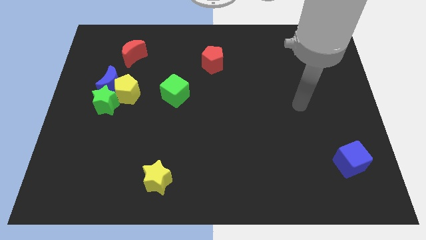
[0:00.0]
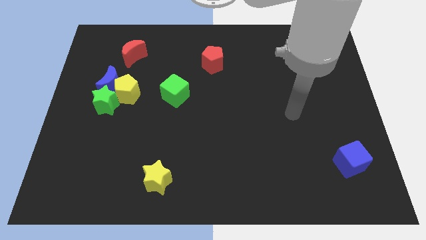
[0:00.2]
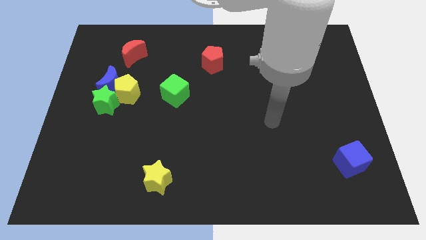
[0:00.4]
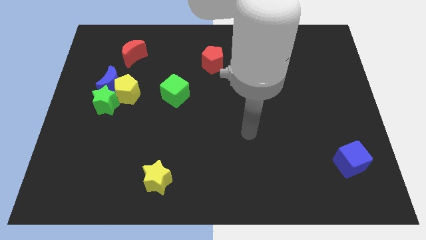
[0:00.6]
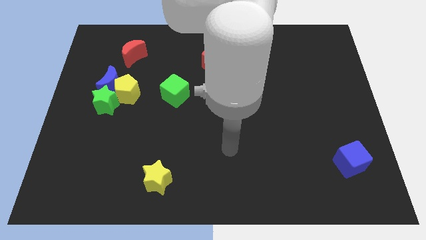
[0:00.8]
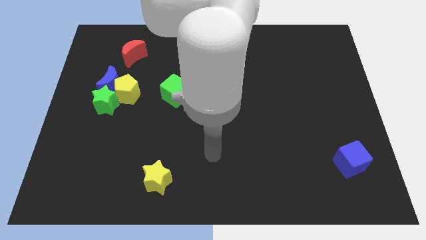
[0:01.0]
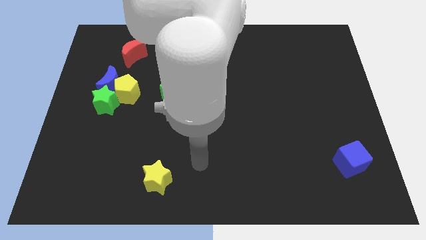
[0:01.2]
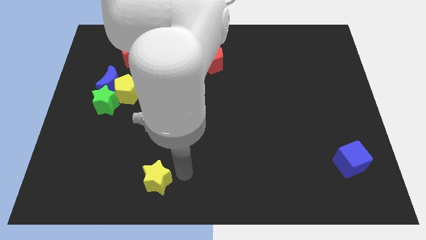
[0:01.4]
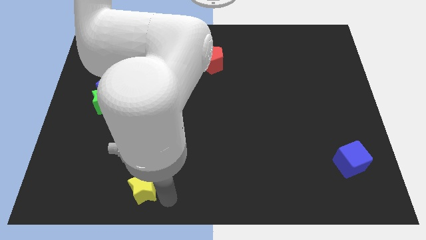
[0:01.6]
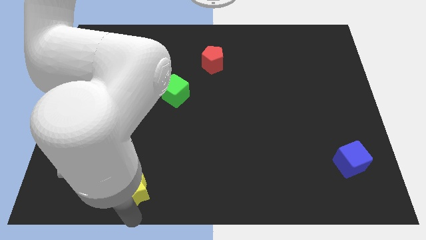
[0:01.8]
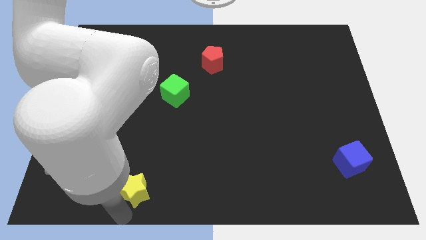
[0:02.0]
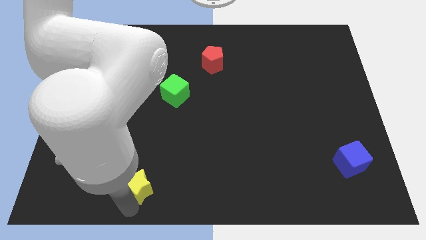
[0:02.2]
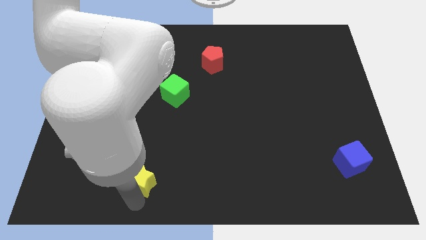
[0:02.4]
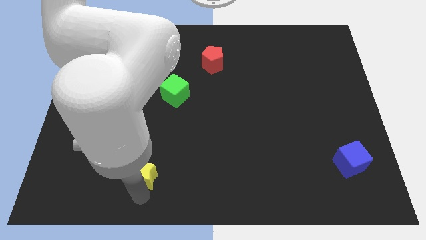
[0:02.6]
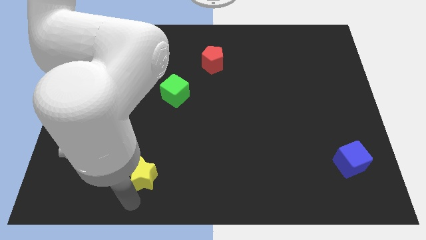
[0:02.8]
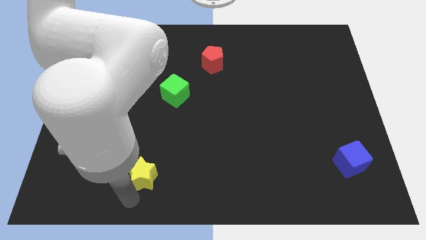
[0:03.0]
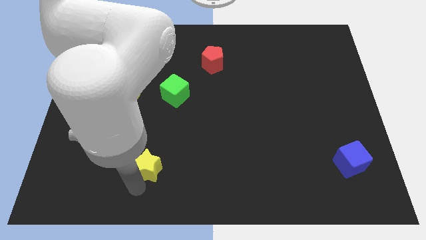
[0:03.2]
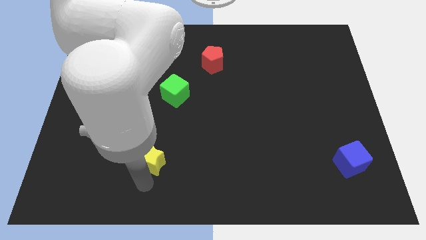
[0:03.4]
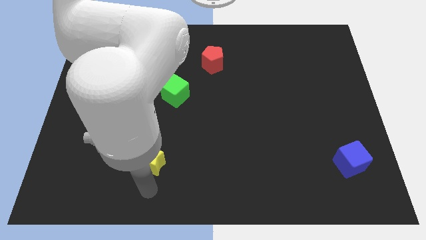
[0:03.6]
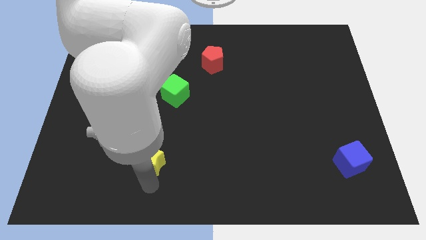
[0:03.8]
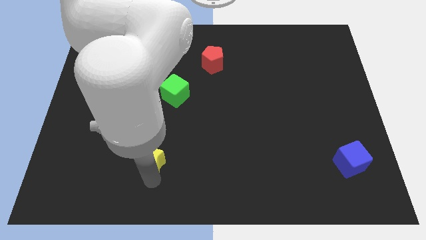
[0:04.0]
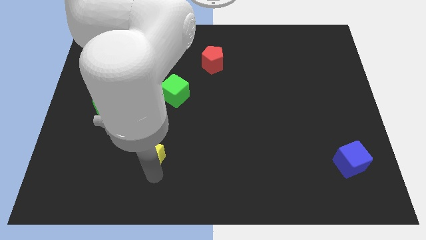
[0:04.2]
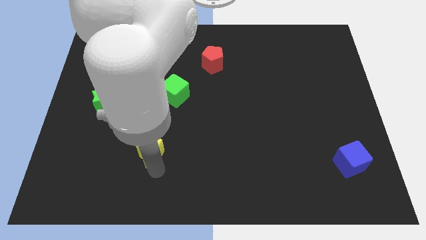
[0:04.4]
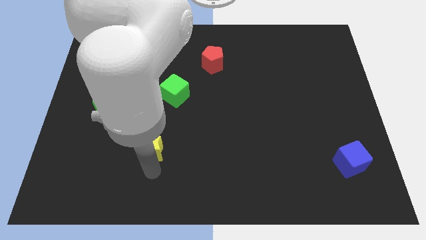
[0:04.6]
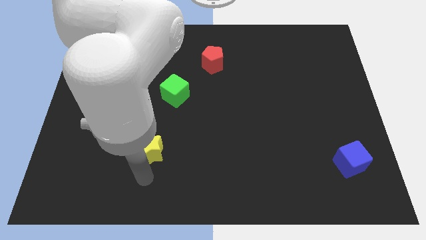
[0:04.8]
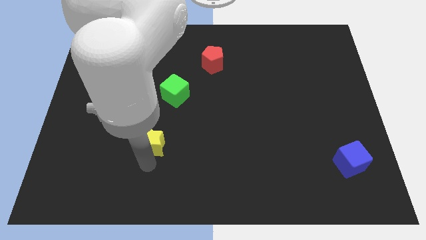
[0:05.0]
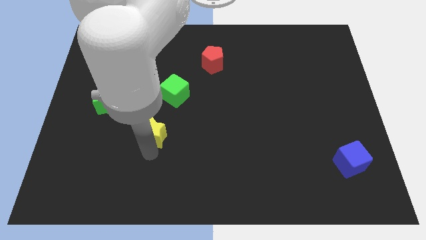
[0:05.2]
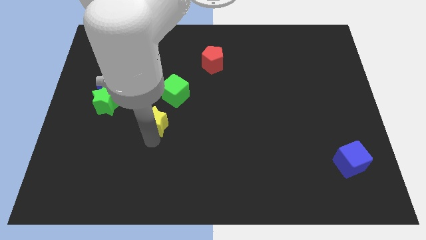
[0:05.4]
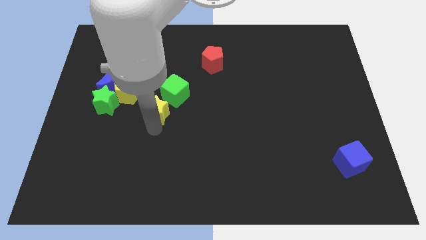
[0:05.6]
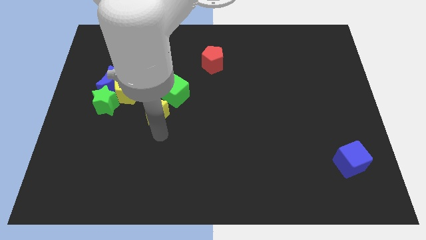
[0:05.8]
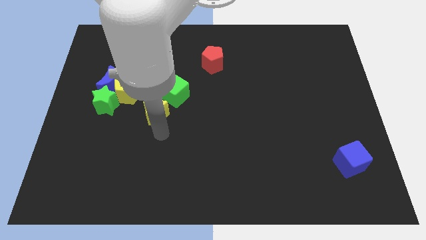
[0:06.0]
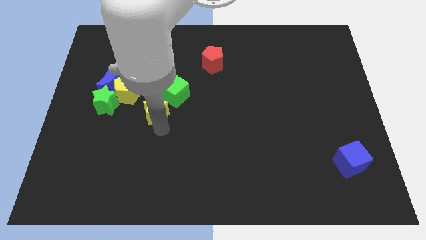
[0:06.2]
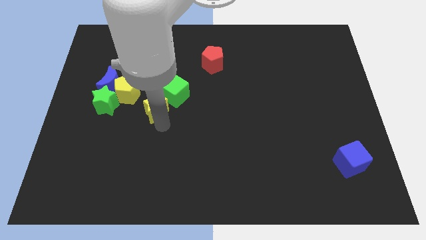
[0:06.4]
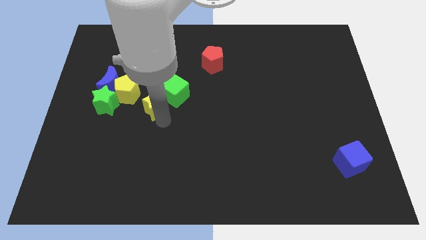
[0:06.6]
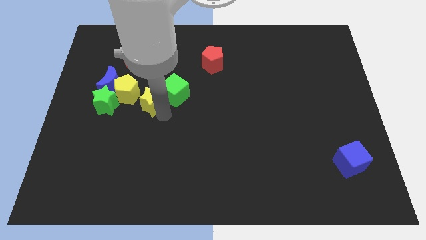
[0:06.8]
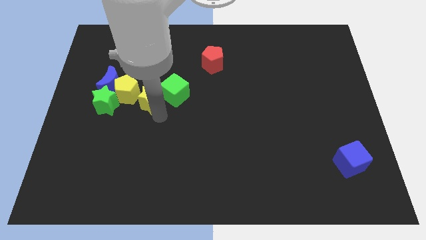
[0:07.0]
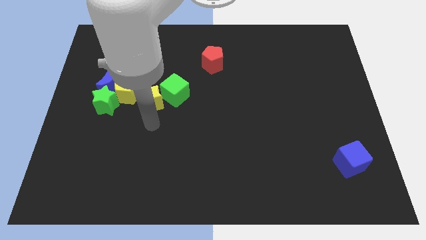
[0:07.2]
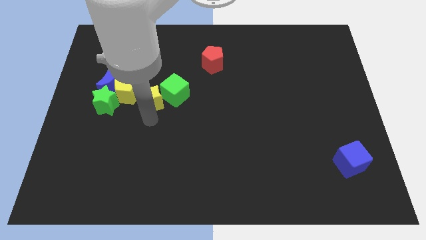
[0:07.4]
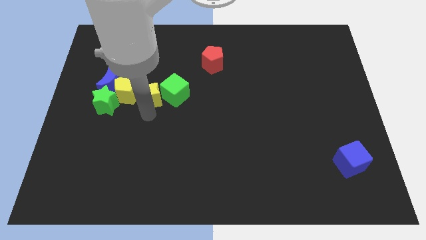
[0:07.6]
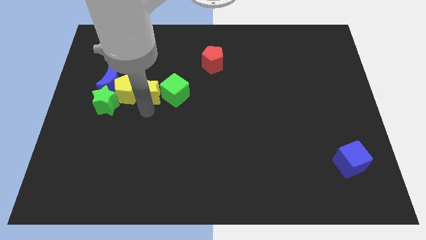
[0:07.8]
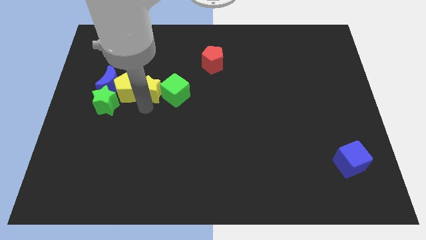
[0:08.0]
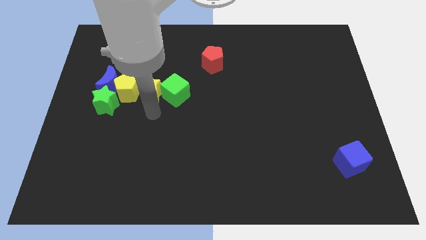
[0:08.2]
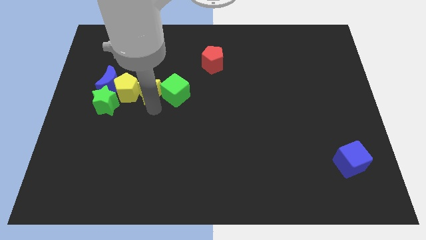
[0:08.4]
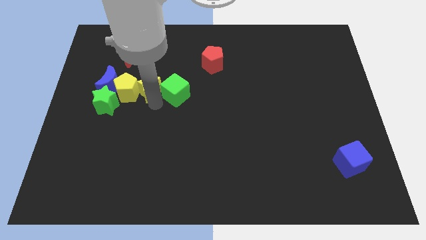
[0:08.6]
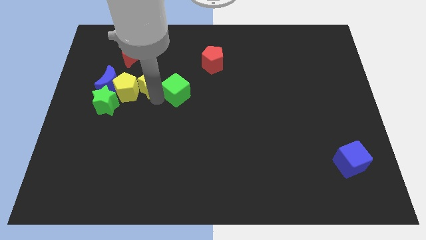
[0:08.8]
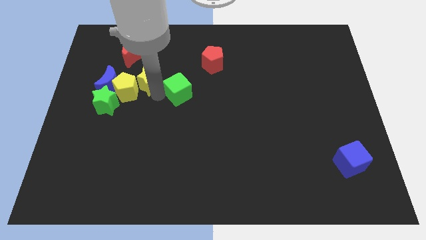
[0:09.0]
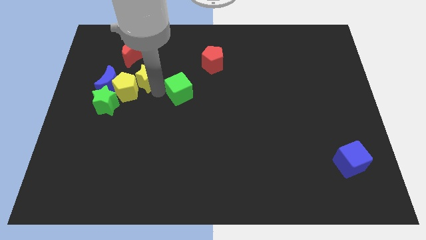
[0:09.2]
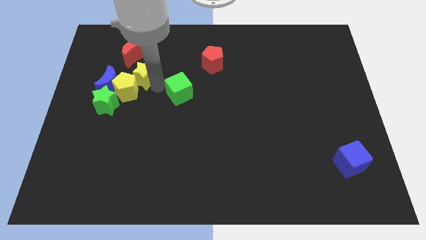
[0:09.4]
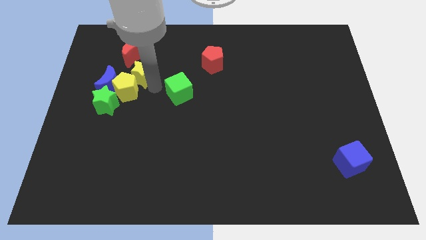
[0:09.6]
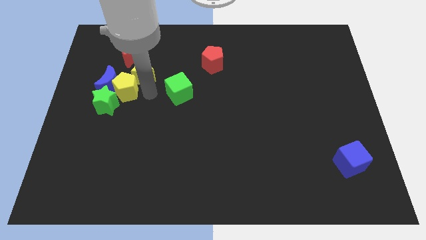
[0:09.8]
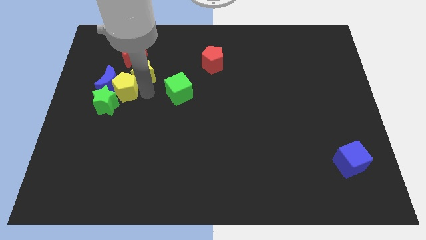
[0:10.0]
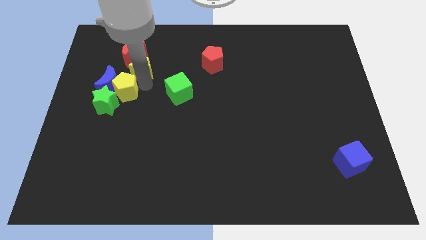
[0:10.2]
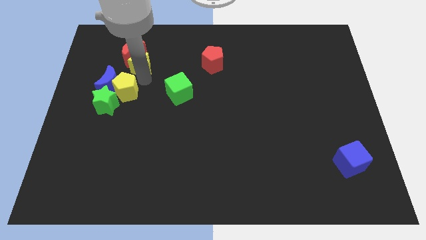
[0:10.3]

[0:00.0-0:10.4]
put the yellow star close to the red moon

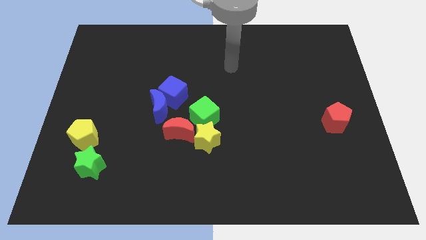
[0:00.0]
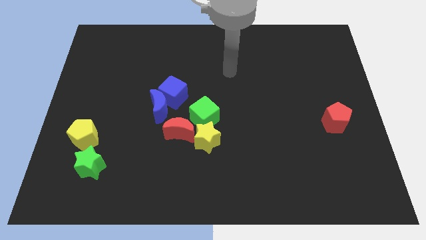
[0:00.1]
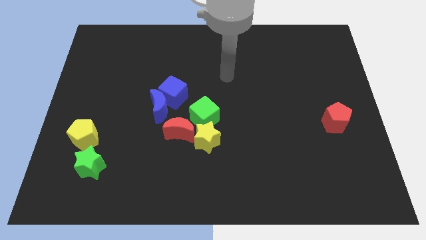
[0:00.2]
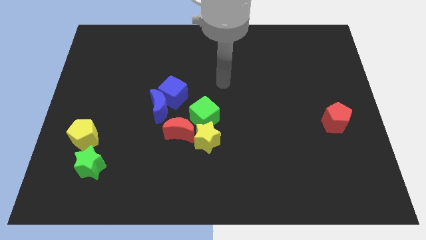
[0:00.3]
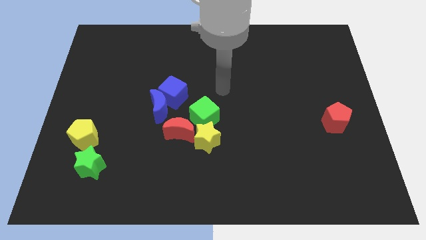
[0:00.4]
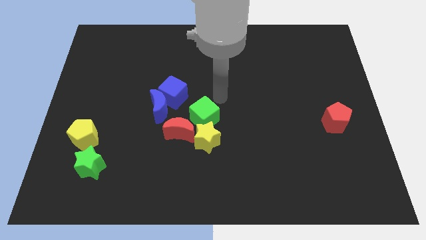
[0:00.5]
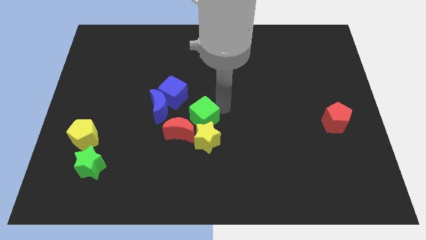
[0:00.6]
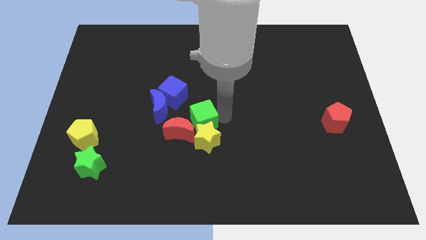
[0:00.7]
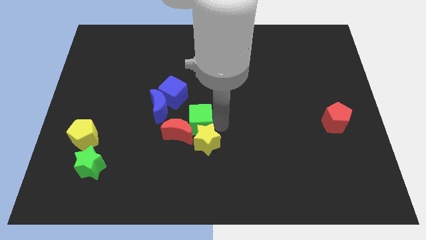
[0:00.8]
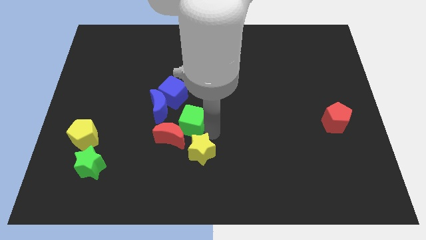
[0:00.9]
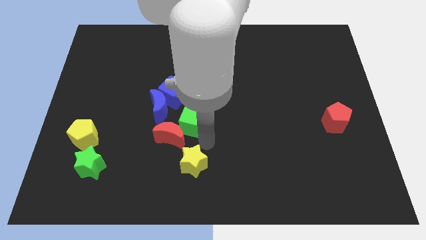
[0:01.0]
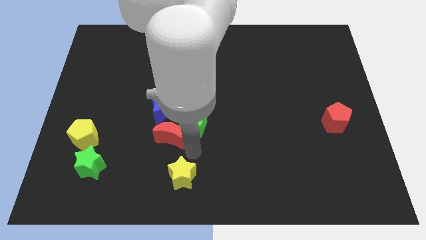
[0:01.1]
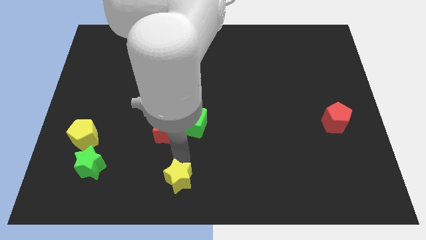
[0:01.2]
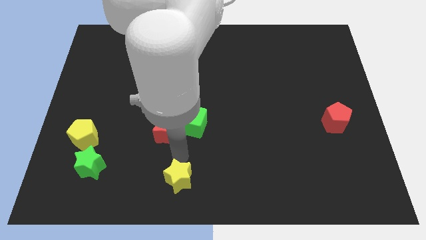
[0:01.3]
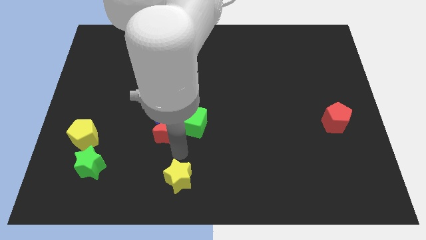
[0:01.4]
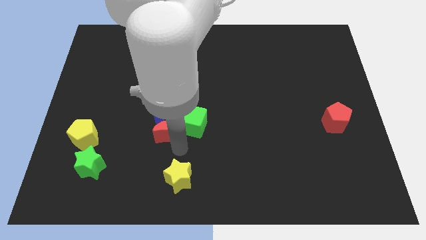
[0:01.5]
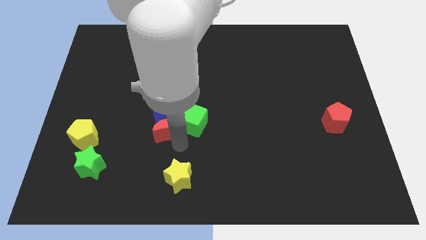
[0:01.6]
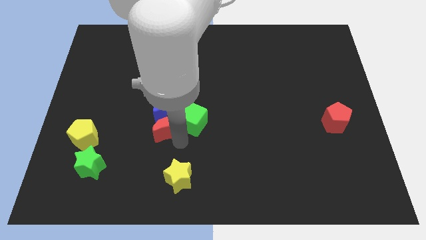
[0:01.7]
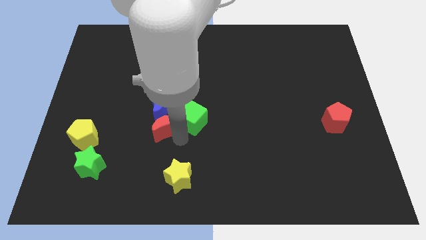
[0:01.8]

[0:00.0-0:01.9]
slide the red moon to the blue moon
